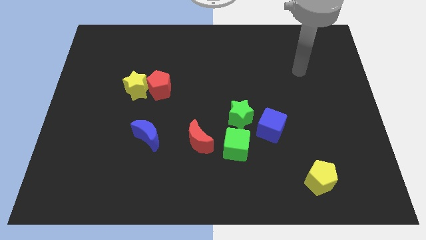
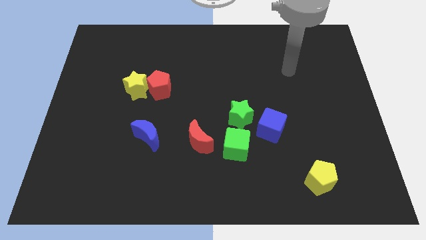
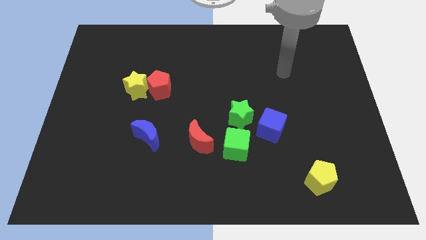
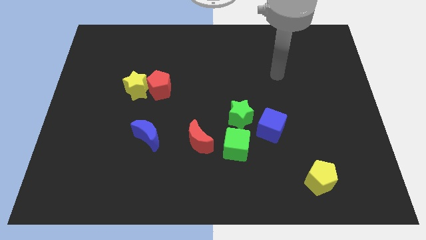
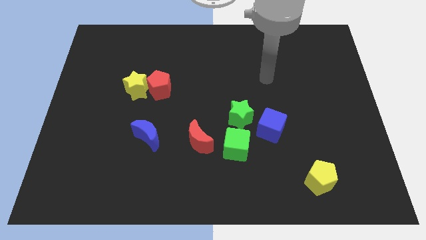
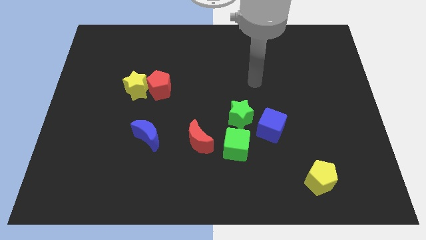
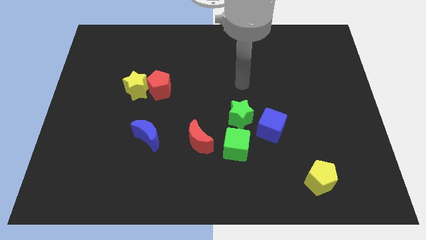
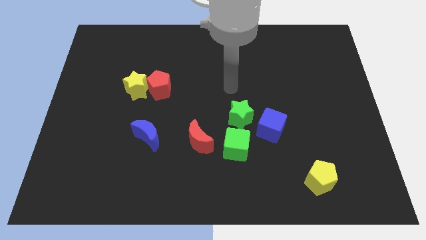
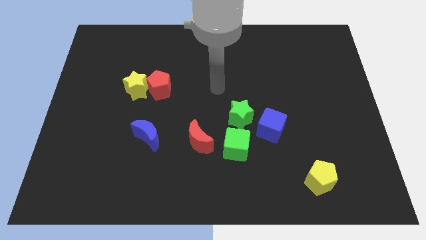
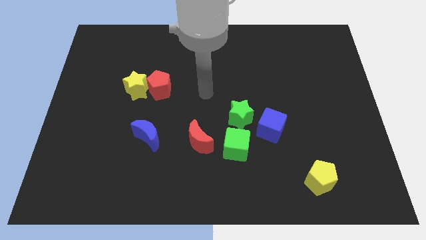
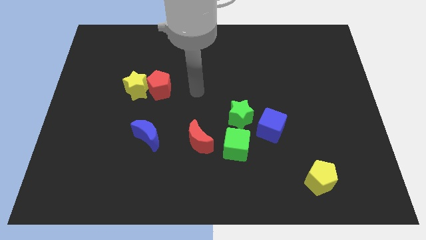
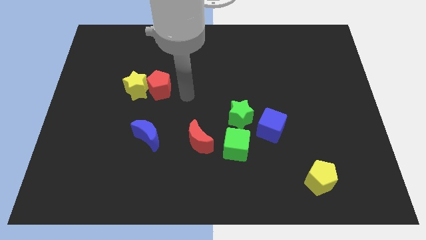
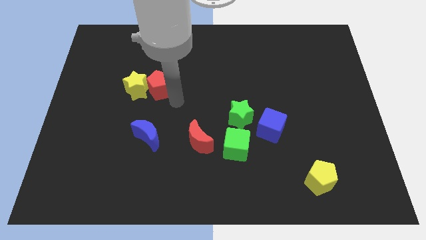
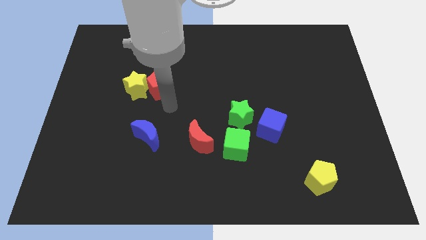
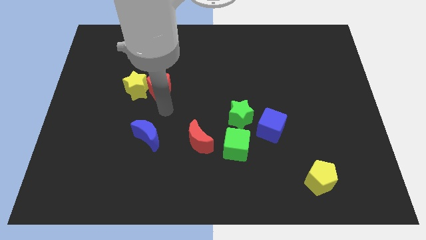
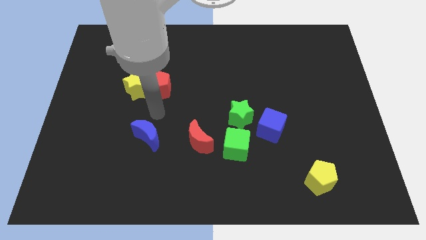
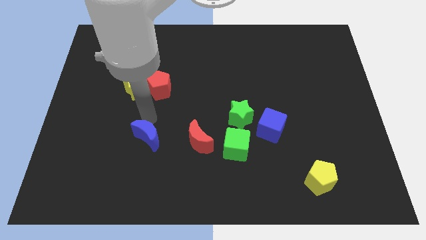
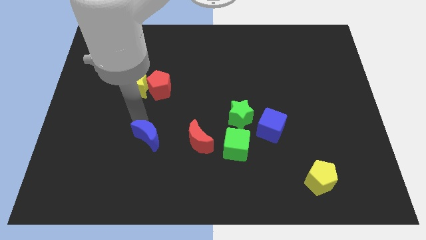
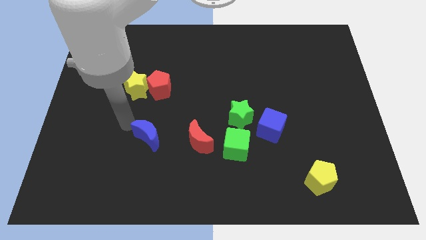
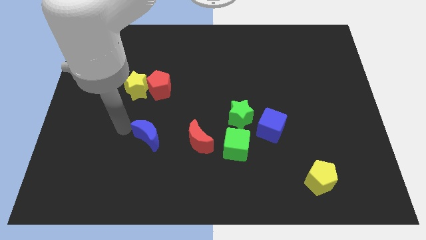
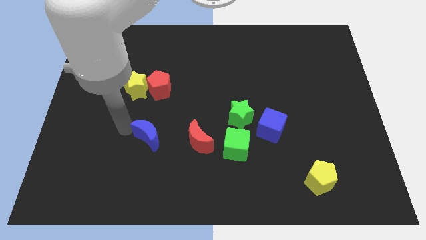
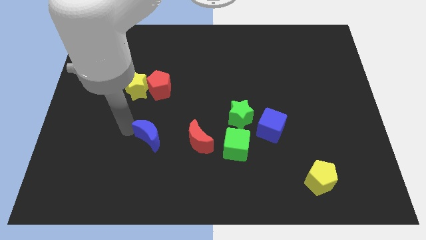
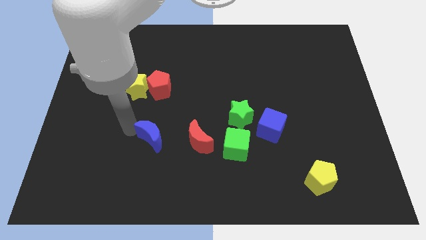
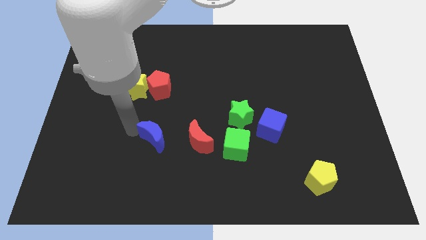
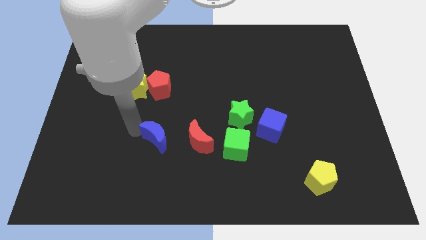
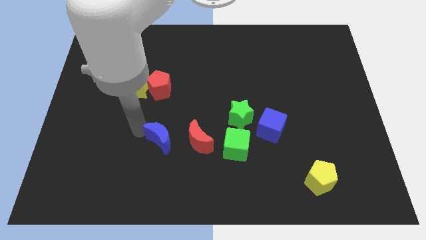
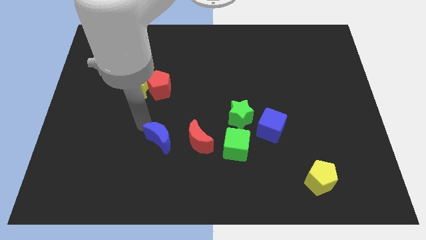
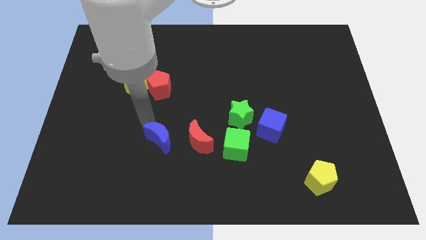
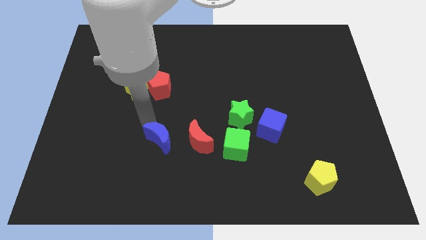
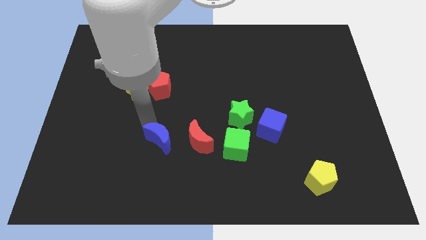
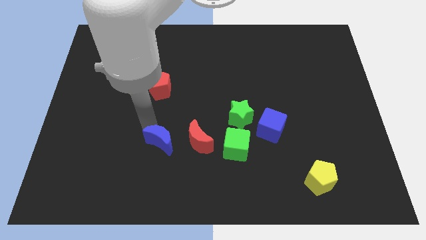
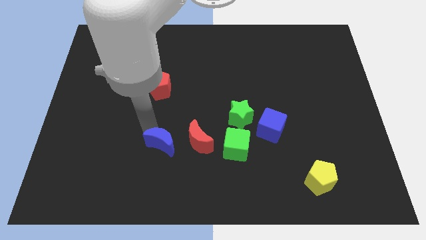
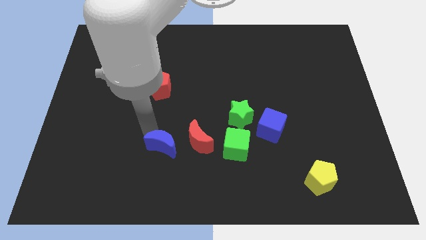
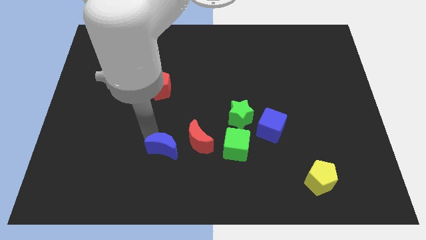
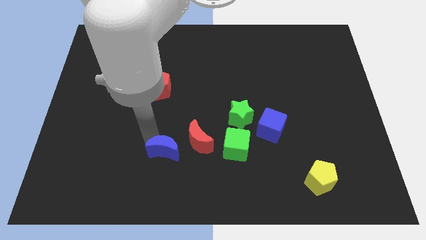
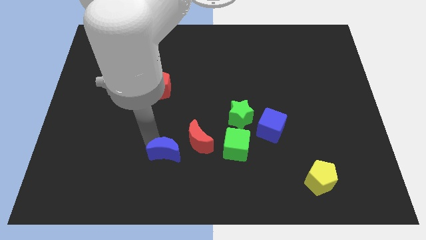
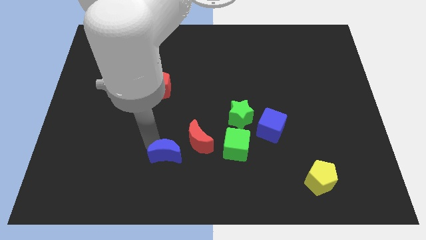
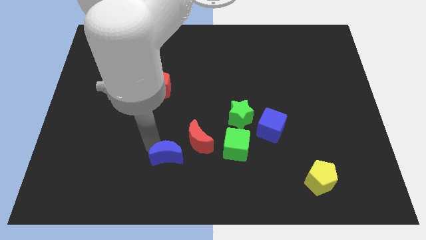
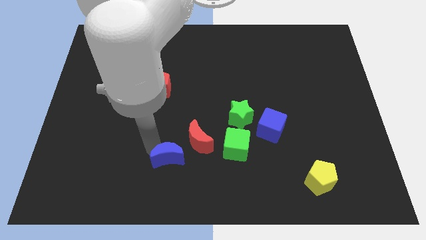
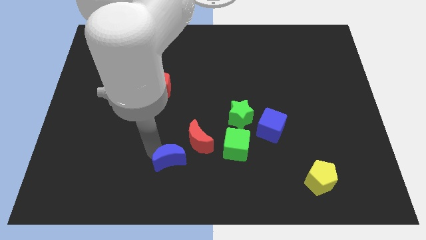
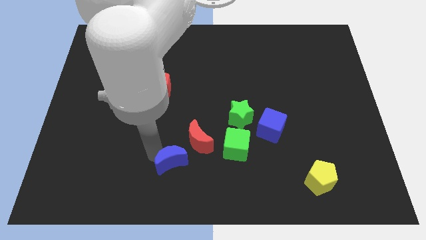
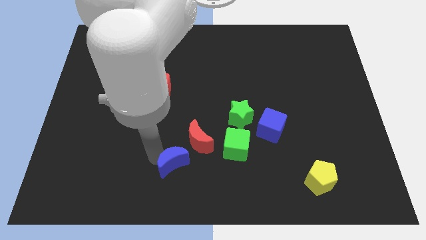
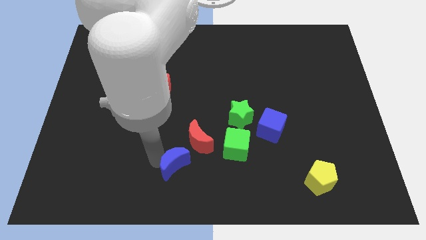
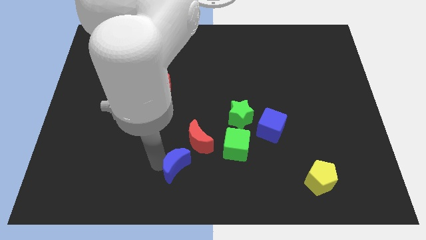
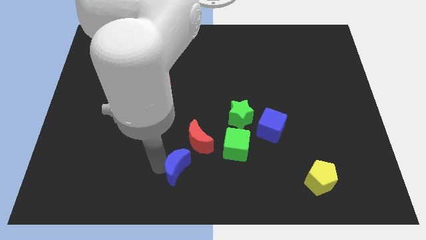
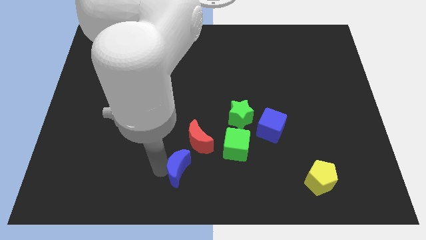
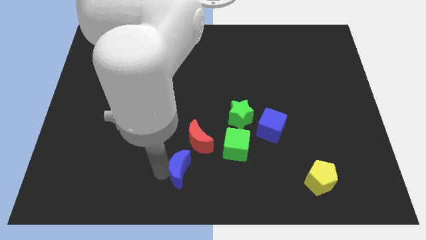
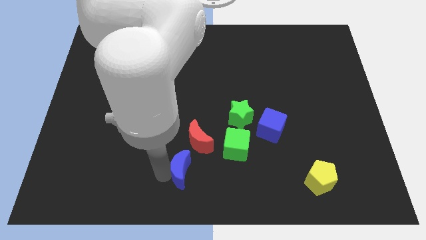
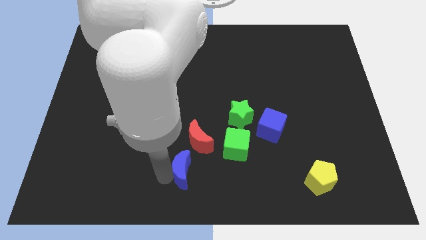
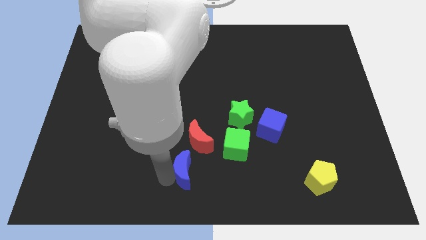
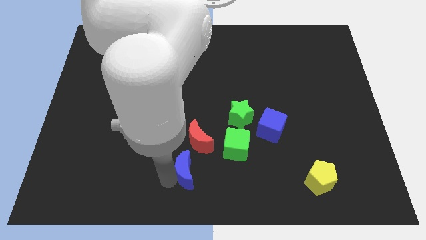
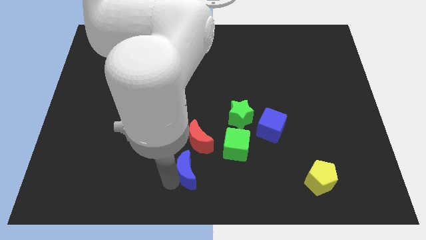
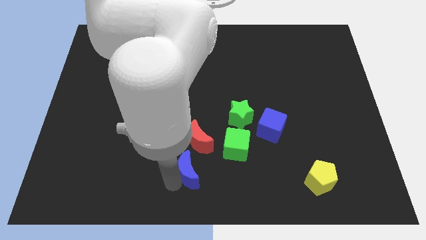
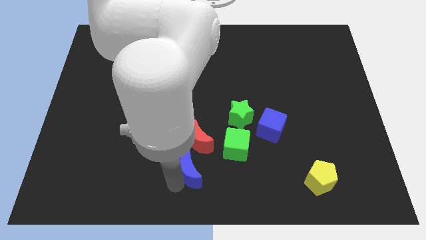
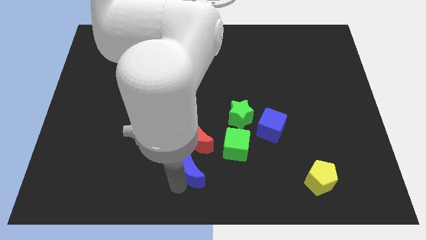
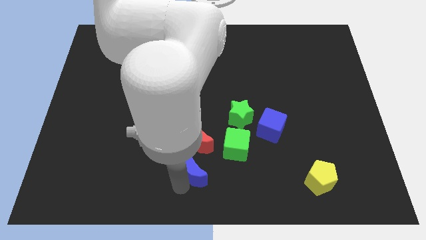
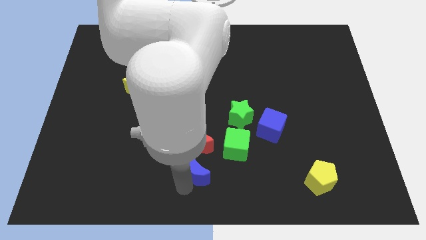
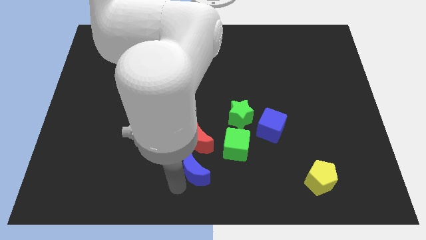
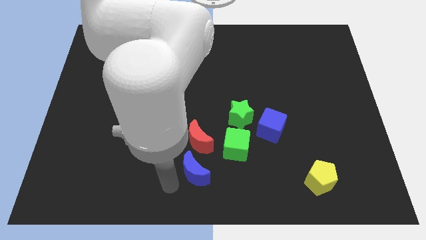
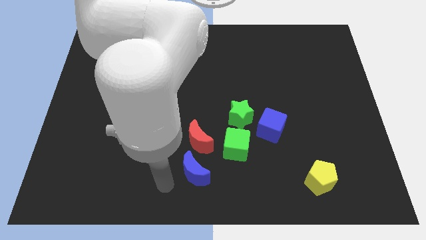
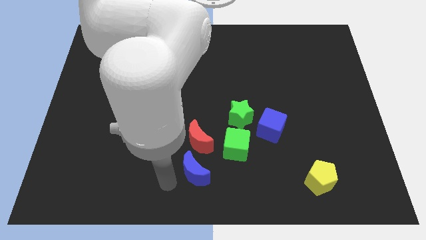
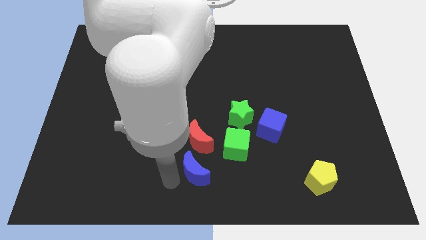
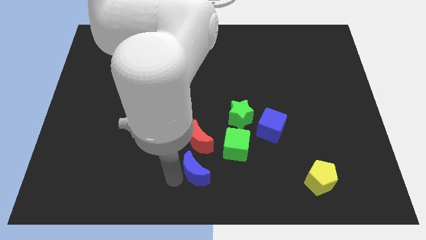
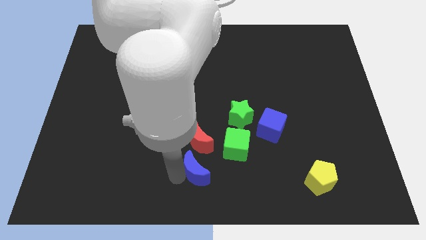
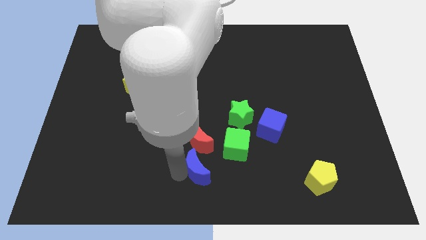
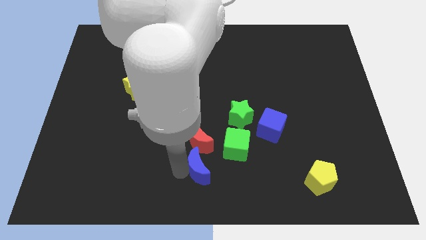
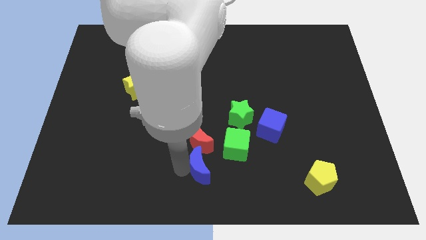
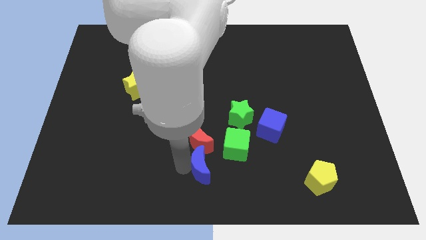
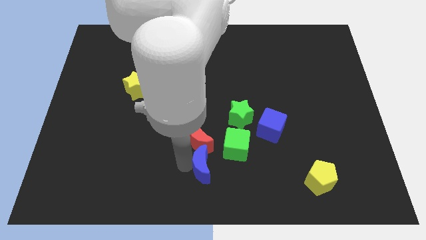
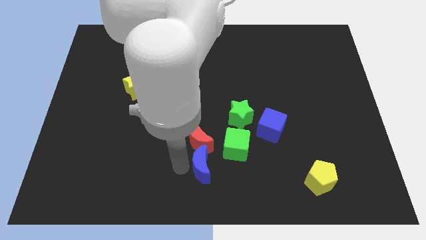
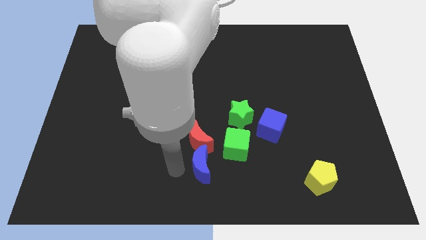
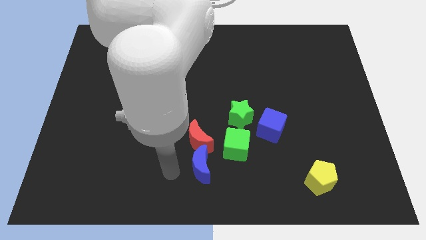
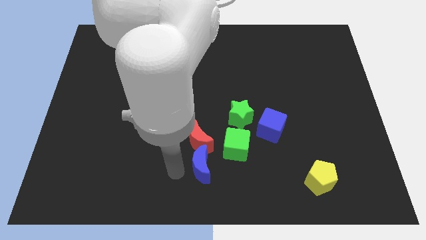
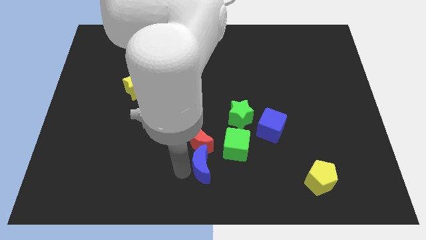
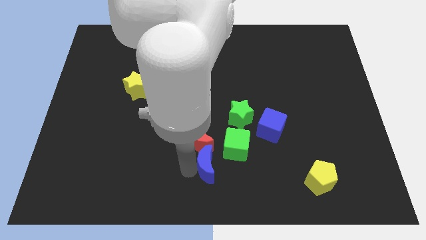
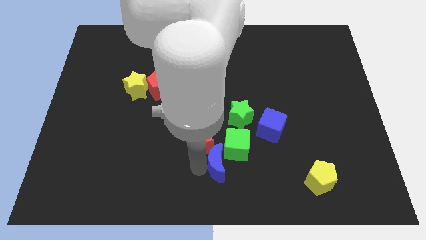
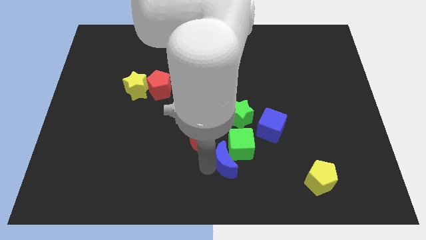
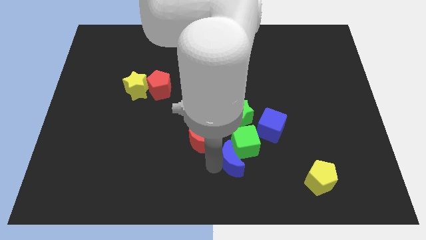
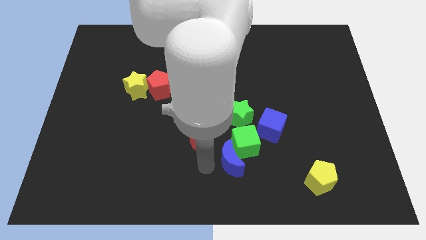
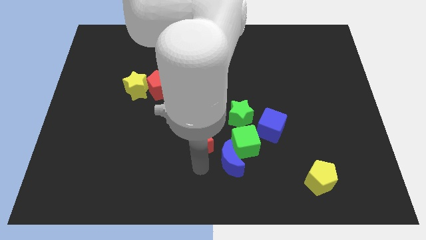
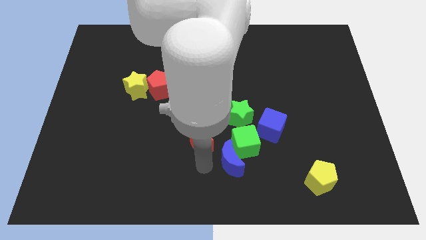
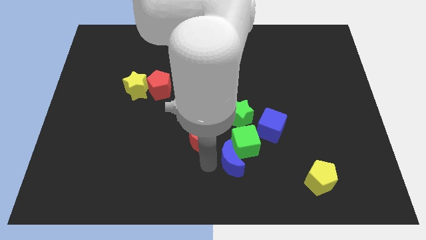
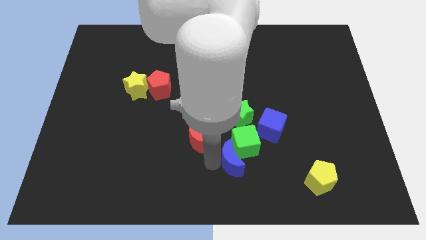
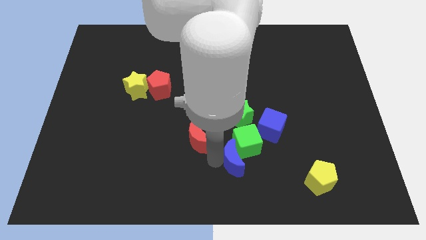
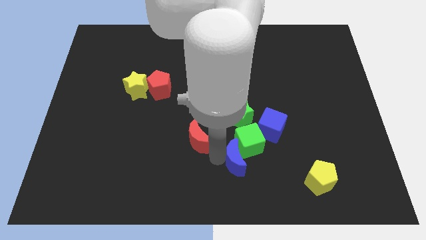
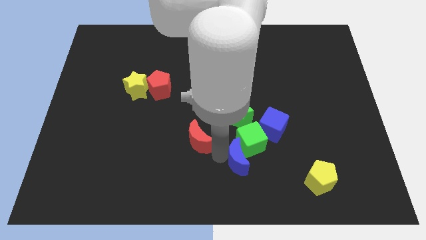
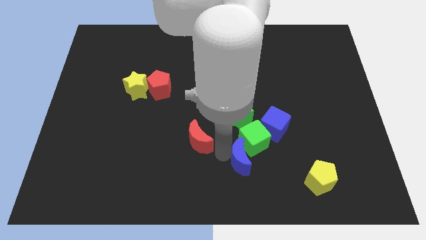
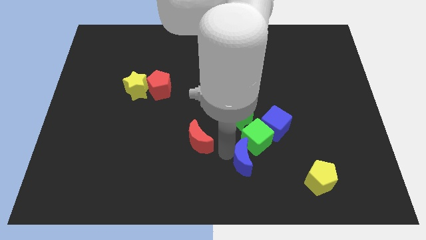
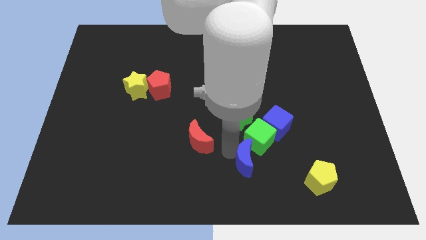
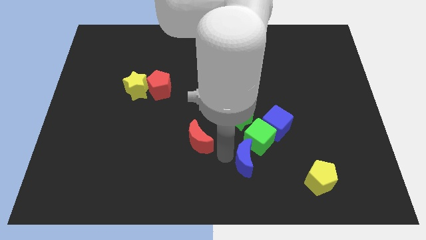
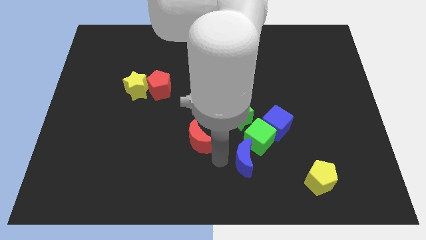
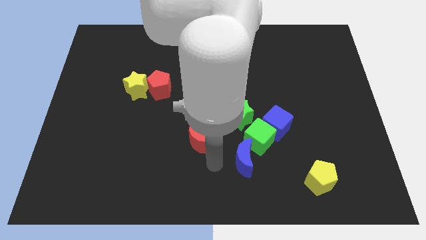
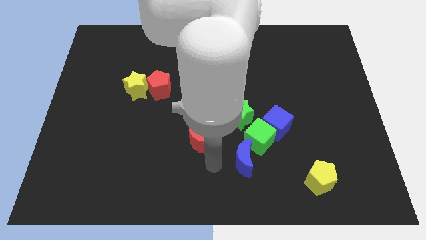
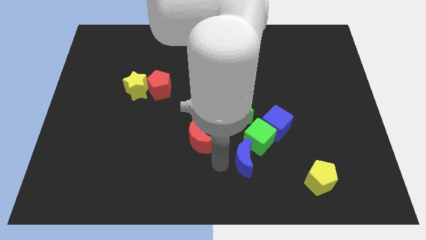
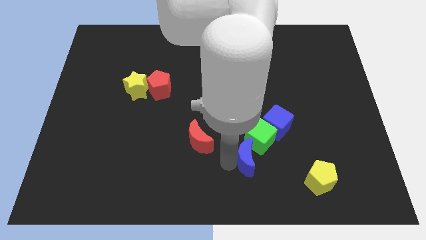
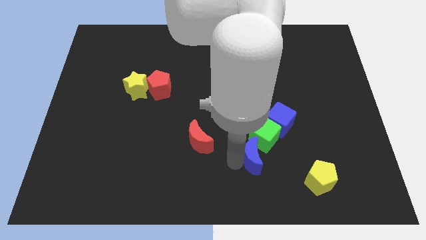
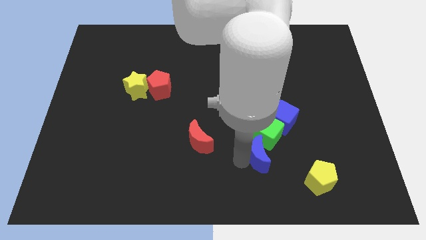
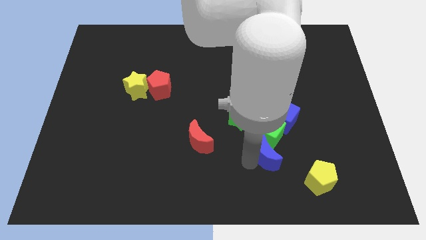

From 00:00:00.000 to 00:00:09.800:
slide the blue moon to the bottom right side of the green star
